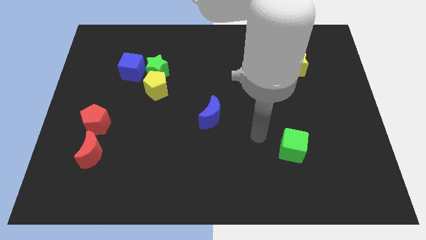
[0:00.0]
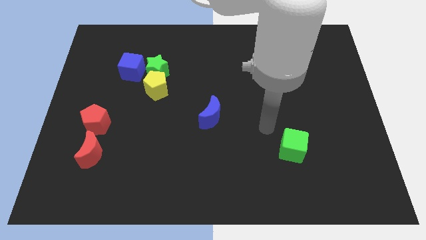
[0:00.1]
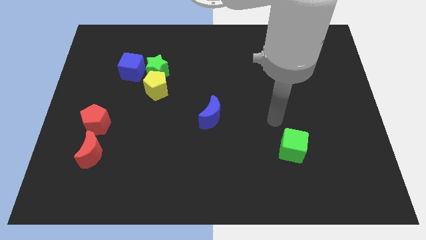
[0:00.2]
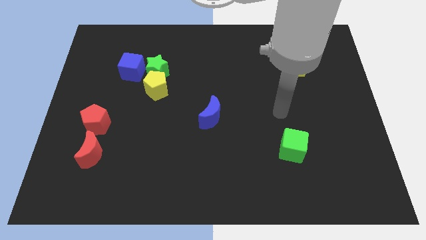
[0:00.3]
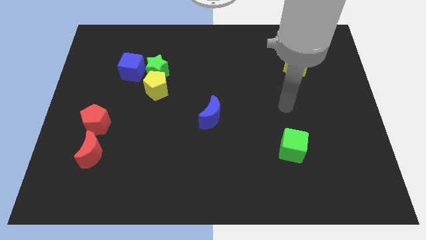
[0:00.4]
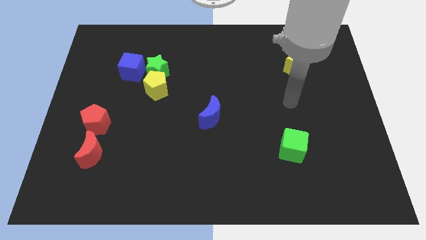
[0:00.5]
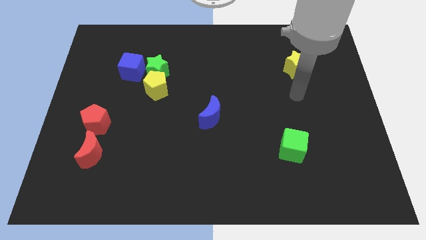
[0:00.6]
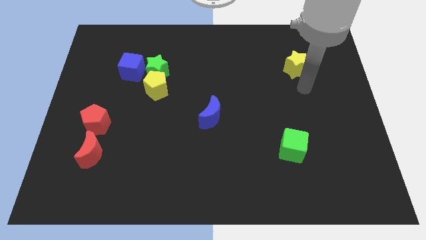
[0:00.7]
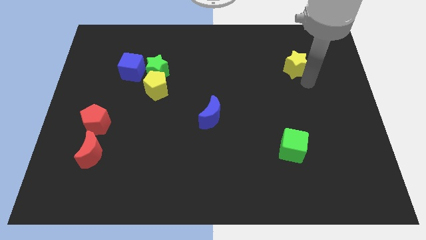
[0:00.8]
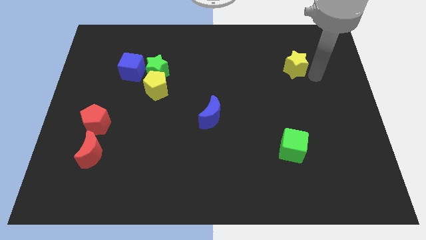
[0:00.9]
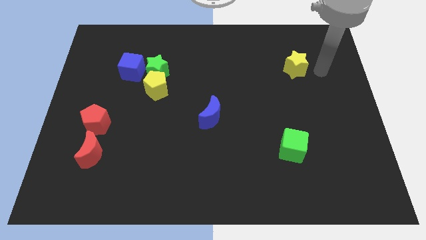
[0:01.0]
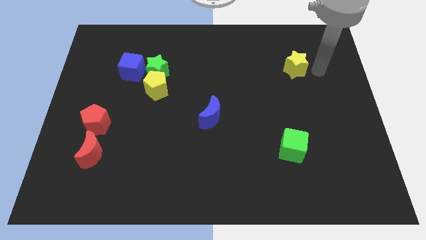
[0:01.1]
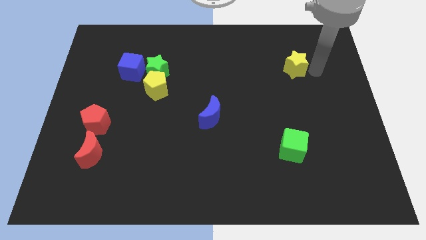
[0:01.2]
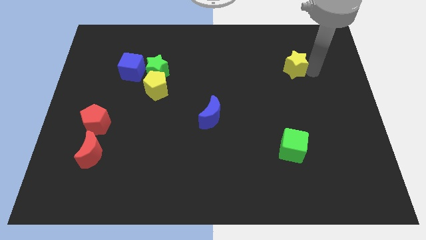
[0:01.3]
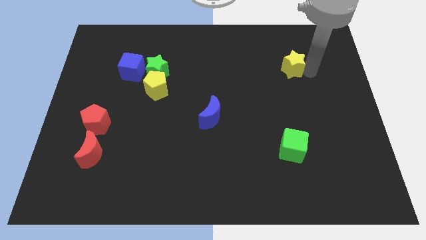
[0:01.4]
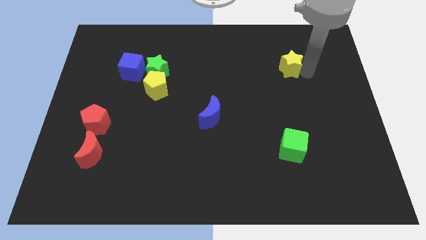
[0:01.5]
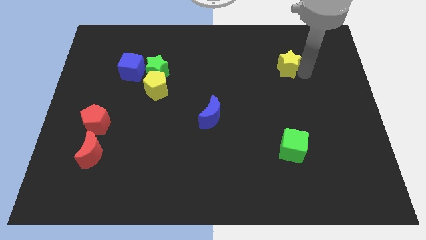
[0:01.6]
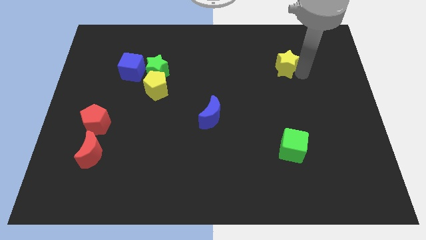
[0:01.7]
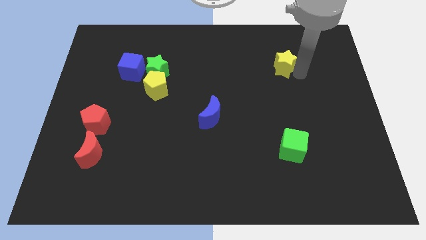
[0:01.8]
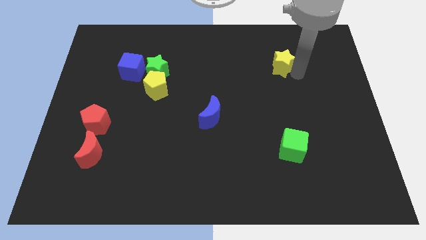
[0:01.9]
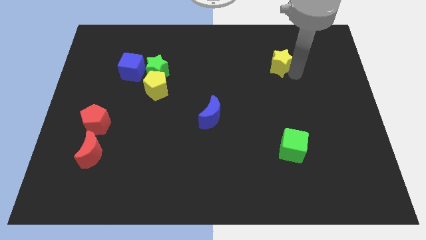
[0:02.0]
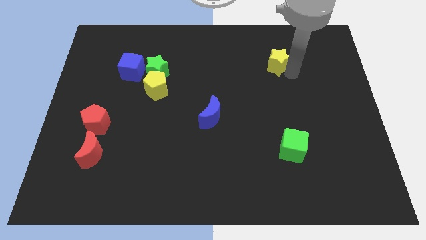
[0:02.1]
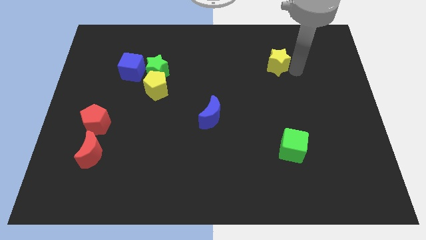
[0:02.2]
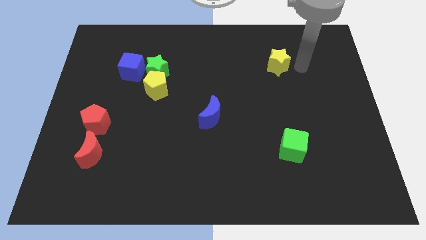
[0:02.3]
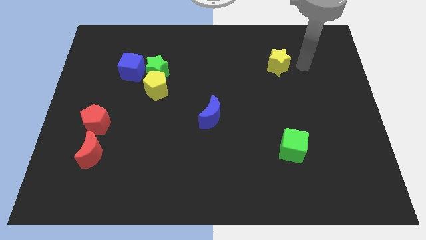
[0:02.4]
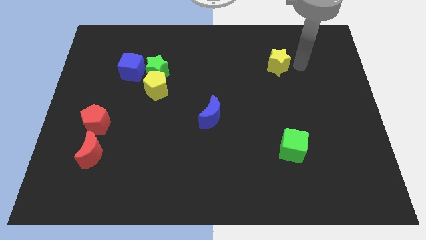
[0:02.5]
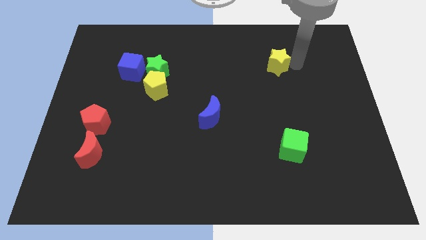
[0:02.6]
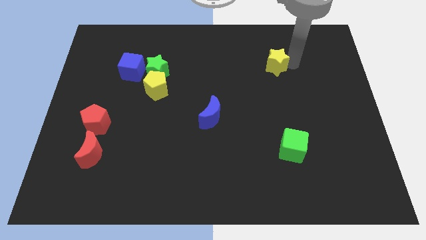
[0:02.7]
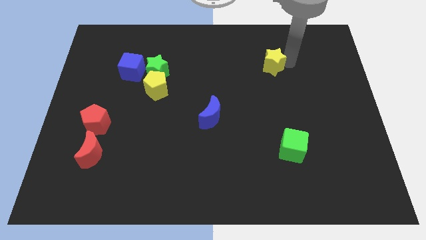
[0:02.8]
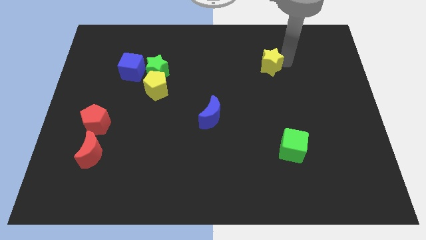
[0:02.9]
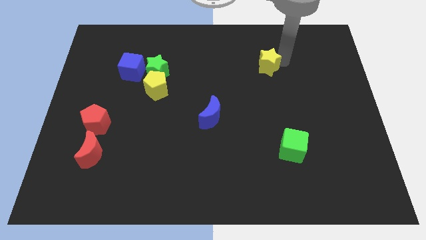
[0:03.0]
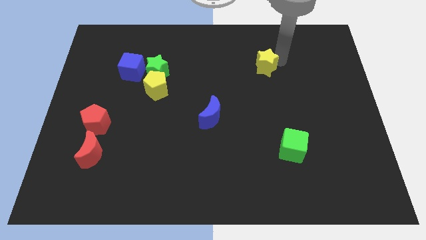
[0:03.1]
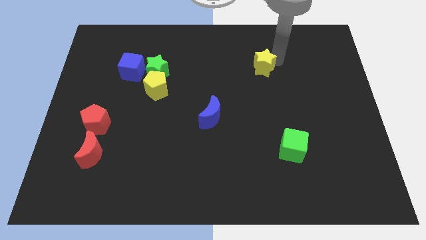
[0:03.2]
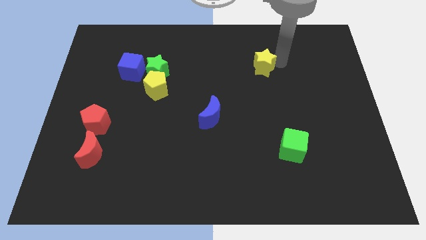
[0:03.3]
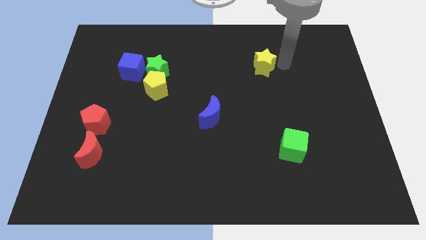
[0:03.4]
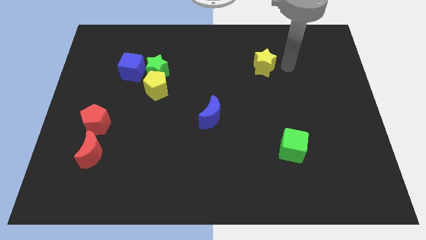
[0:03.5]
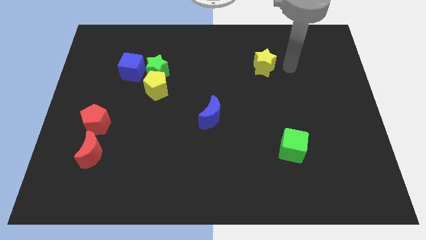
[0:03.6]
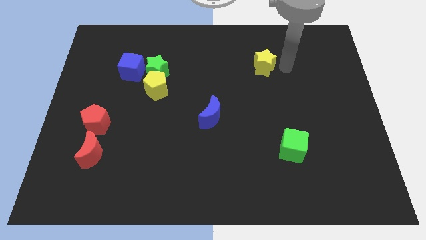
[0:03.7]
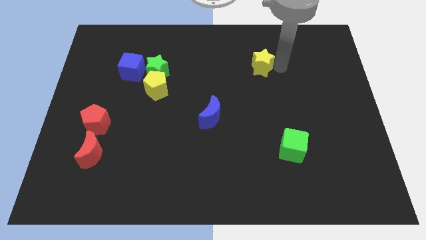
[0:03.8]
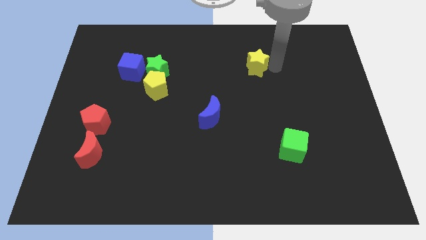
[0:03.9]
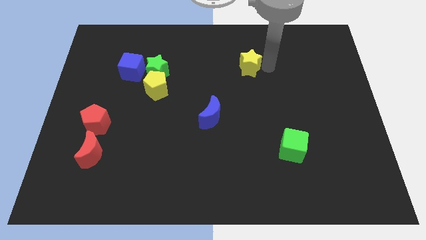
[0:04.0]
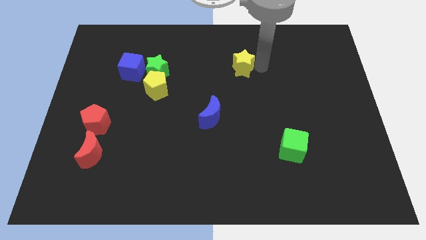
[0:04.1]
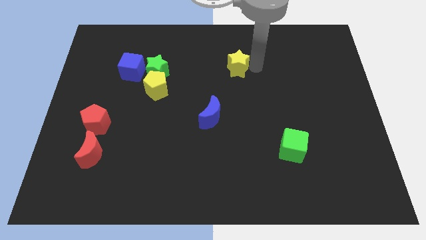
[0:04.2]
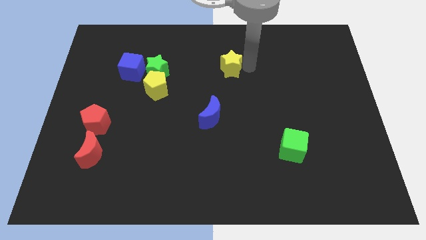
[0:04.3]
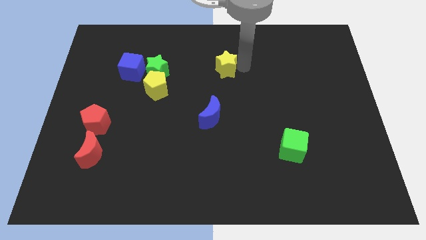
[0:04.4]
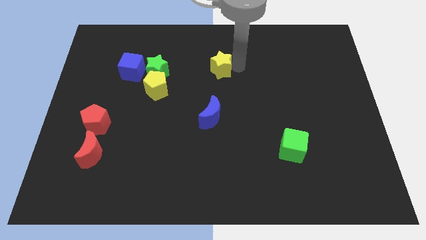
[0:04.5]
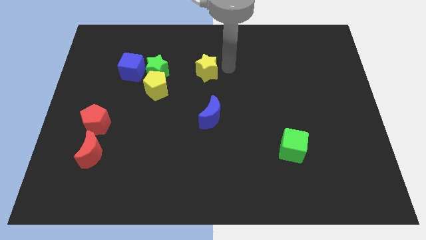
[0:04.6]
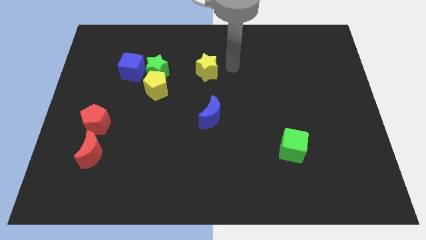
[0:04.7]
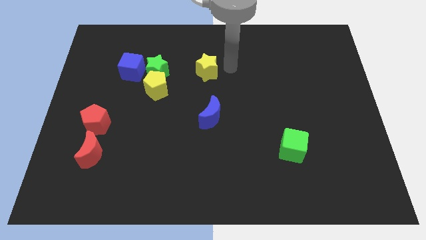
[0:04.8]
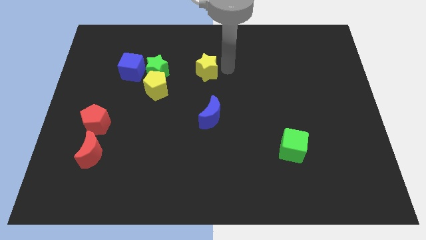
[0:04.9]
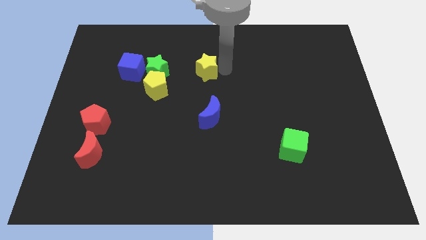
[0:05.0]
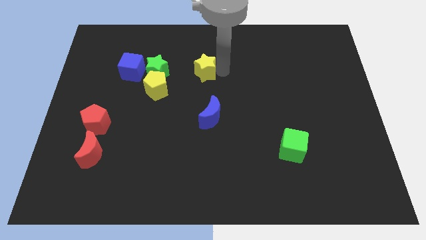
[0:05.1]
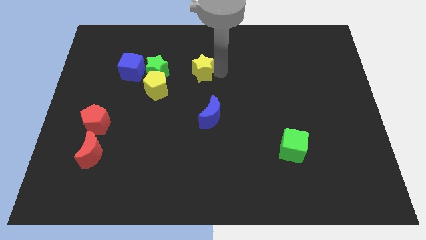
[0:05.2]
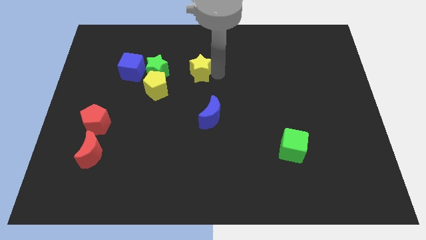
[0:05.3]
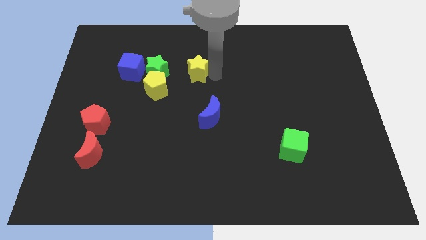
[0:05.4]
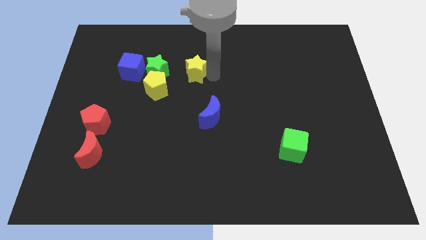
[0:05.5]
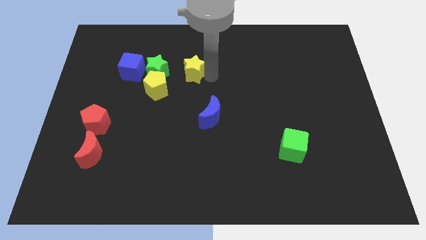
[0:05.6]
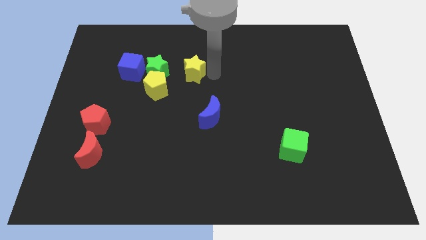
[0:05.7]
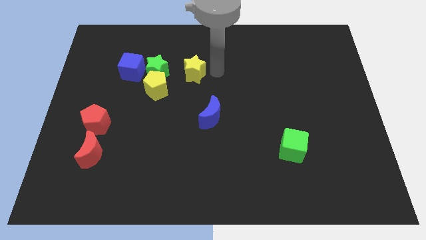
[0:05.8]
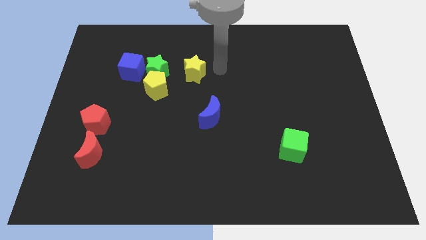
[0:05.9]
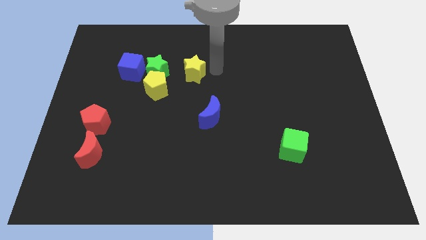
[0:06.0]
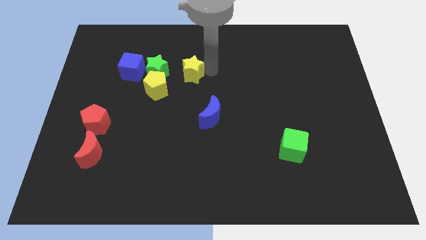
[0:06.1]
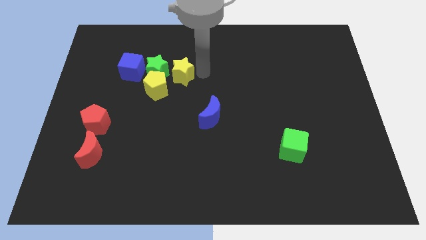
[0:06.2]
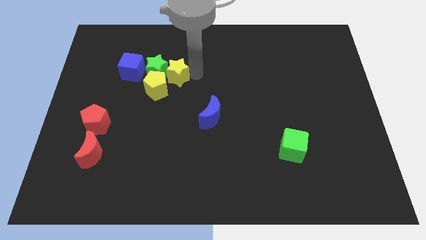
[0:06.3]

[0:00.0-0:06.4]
move the yellow star to the green star
